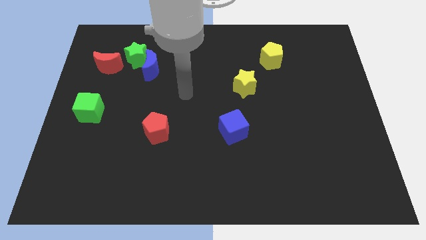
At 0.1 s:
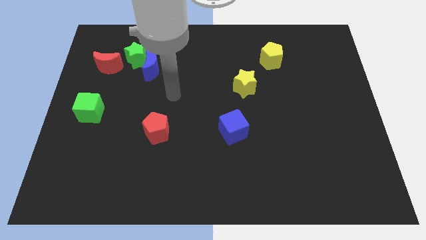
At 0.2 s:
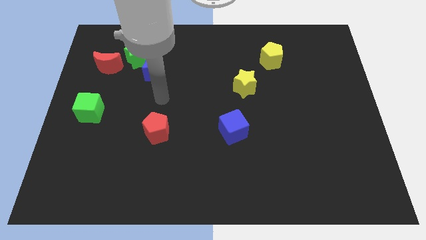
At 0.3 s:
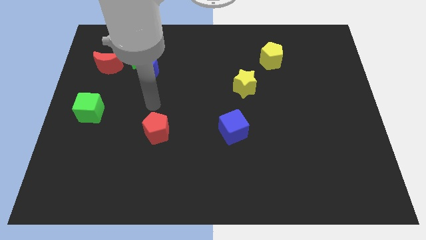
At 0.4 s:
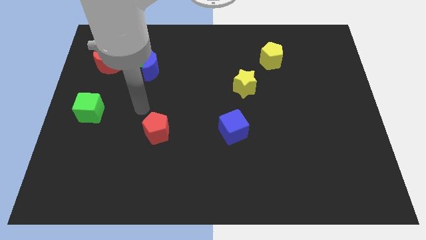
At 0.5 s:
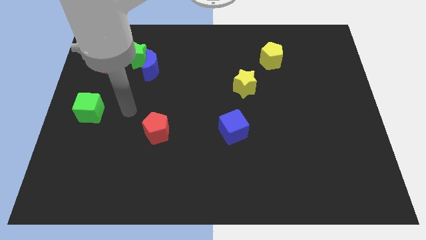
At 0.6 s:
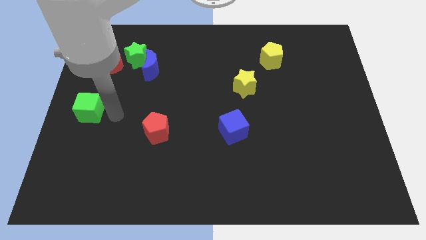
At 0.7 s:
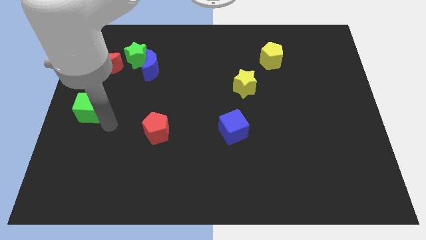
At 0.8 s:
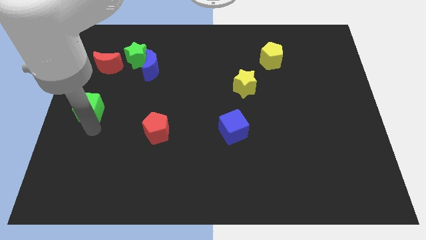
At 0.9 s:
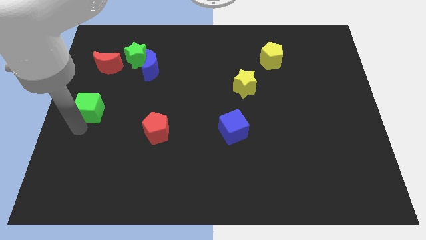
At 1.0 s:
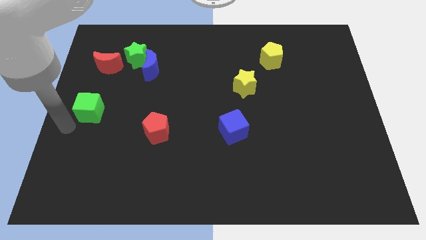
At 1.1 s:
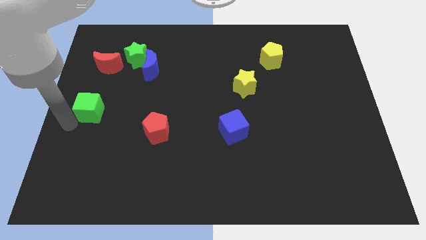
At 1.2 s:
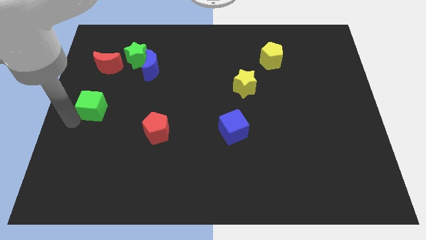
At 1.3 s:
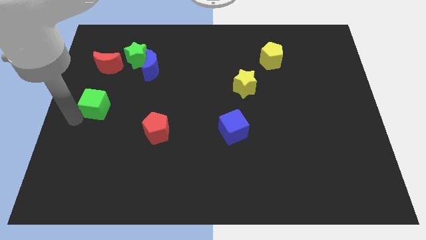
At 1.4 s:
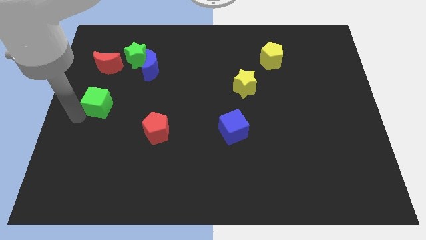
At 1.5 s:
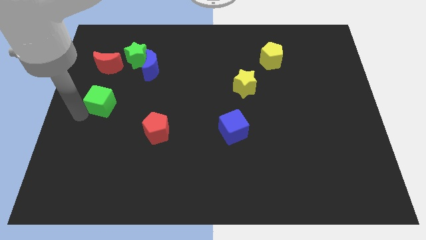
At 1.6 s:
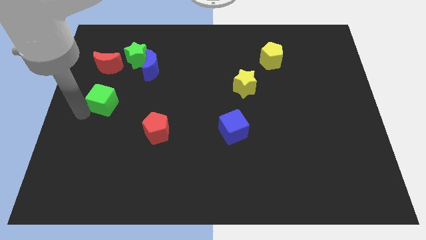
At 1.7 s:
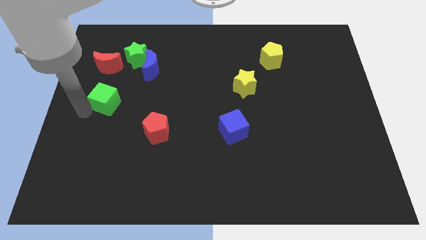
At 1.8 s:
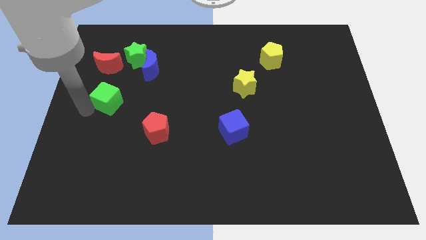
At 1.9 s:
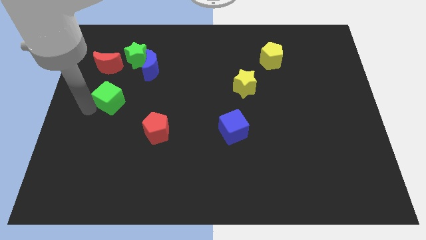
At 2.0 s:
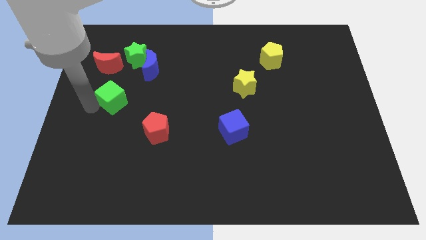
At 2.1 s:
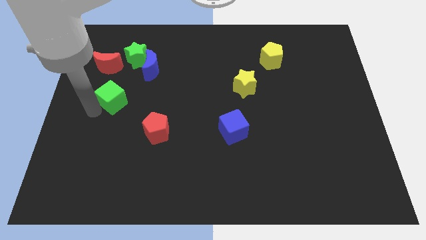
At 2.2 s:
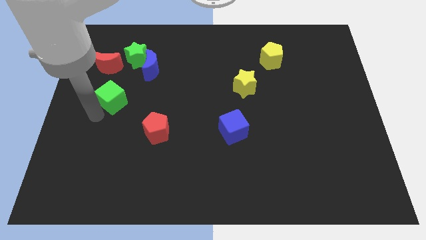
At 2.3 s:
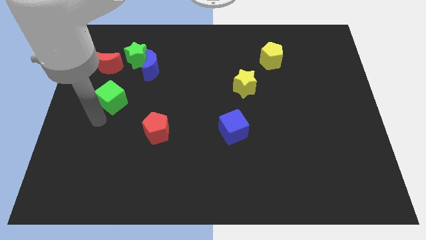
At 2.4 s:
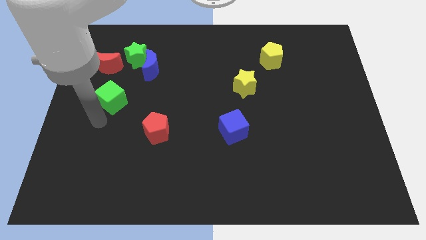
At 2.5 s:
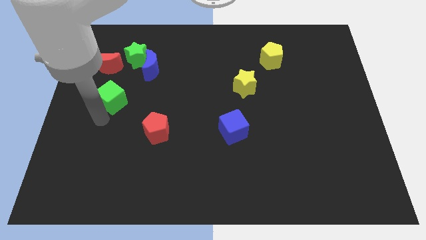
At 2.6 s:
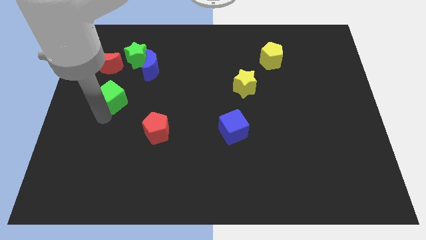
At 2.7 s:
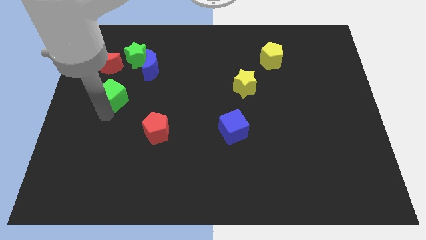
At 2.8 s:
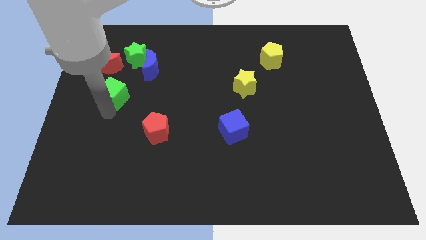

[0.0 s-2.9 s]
move the green cube to the bottom right side of the red moon

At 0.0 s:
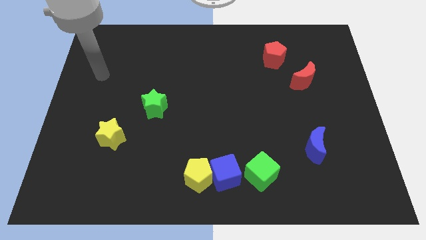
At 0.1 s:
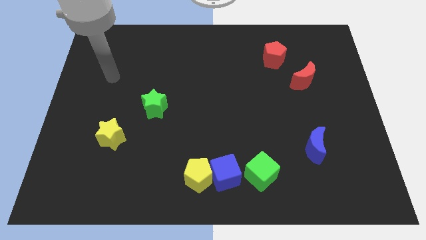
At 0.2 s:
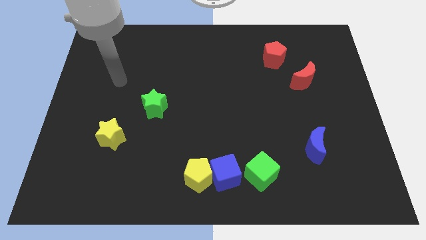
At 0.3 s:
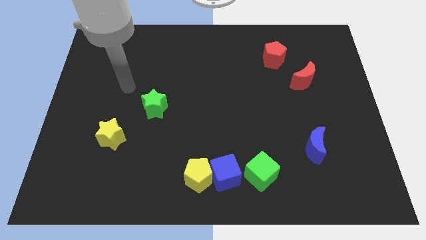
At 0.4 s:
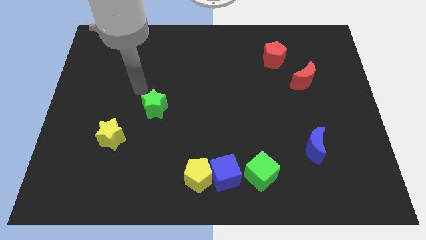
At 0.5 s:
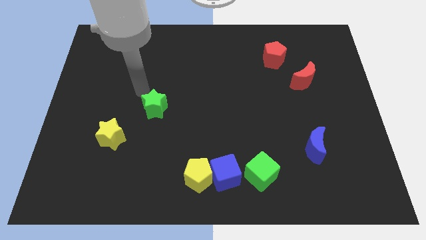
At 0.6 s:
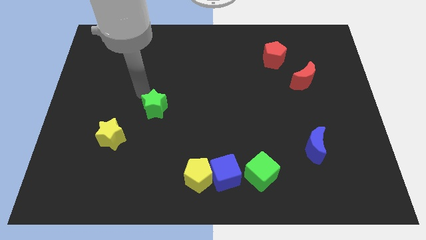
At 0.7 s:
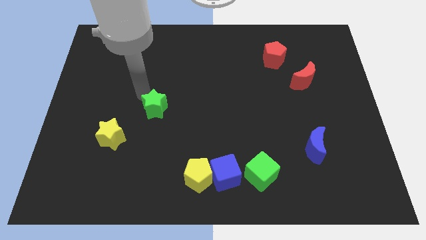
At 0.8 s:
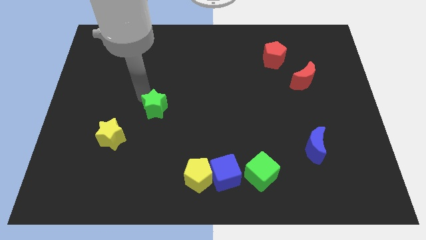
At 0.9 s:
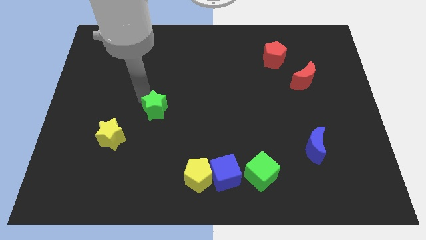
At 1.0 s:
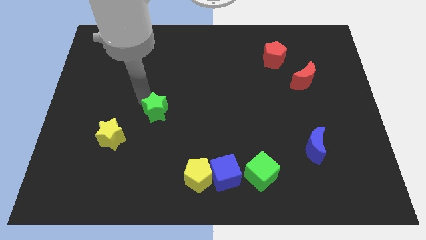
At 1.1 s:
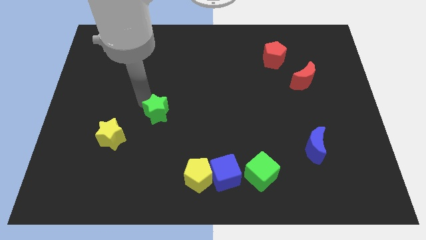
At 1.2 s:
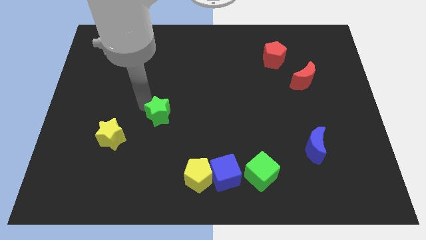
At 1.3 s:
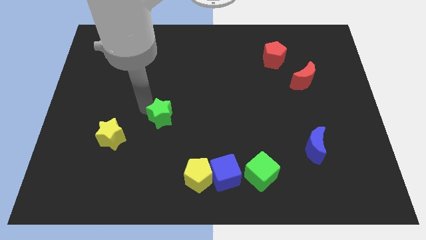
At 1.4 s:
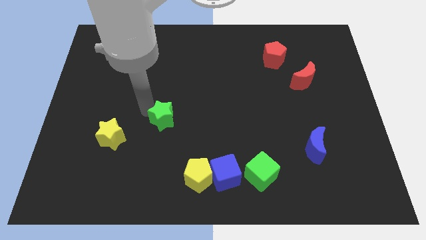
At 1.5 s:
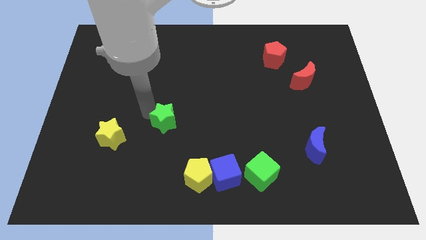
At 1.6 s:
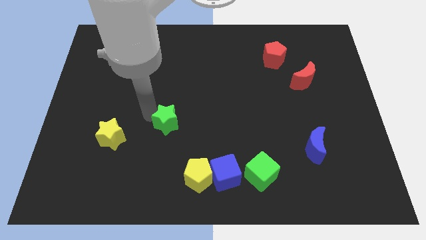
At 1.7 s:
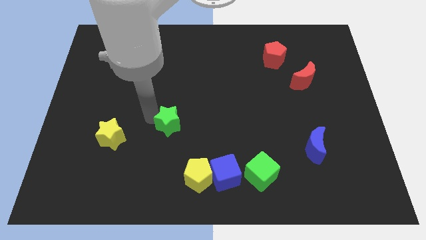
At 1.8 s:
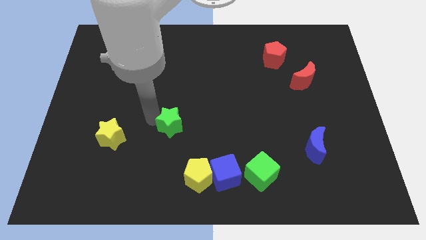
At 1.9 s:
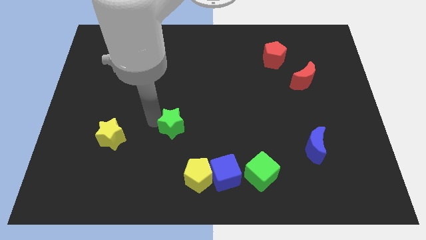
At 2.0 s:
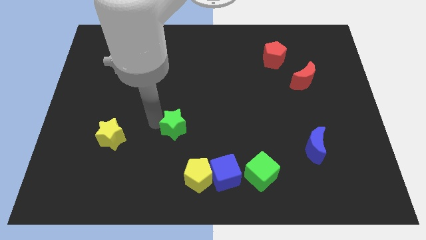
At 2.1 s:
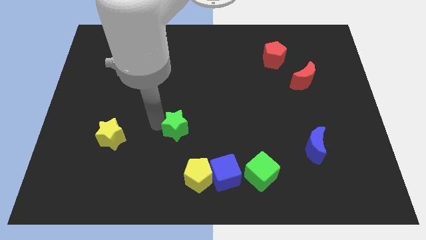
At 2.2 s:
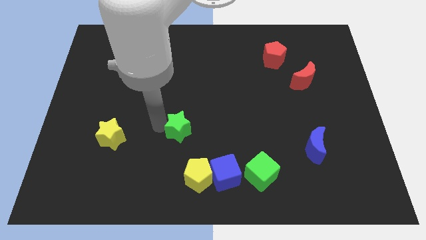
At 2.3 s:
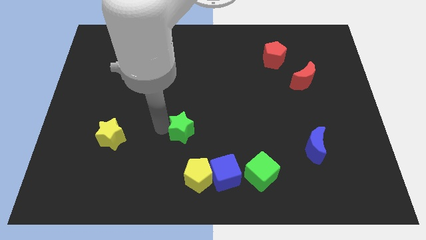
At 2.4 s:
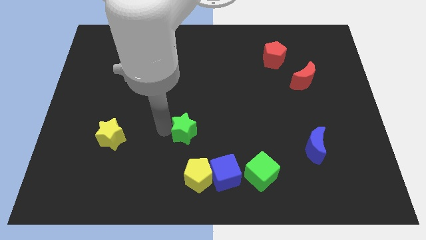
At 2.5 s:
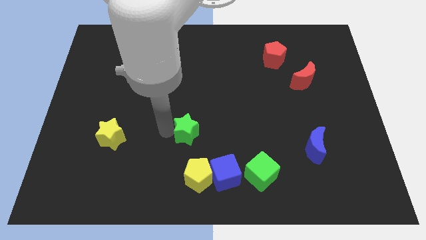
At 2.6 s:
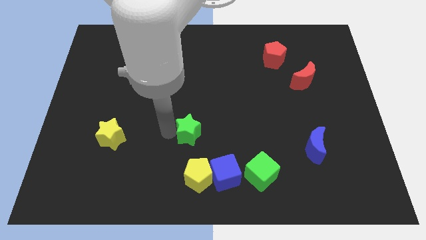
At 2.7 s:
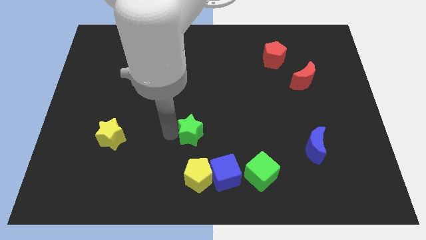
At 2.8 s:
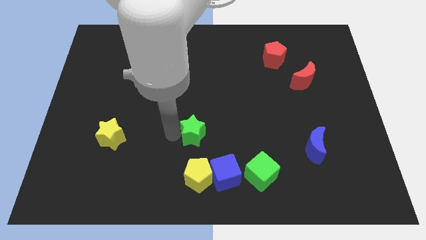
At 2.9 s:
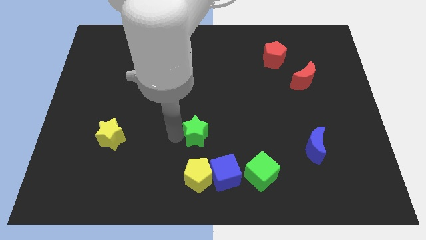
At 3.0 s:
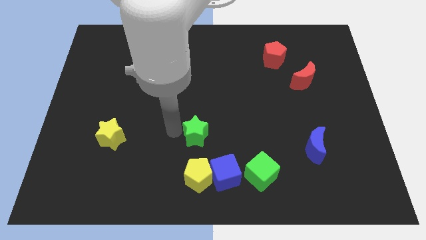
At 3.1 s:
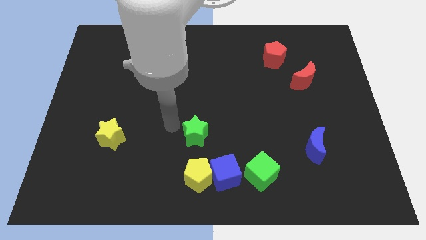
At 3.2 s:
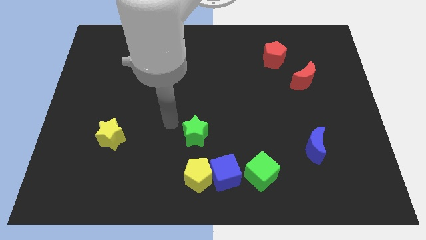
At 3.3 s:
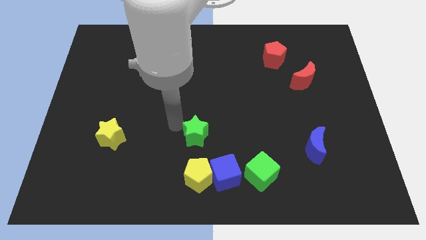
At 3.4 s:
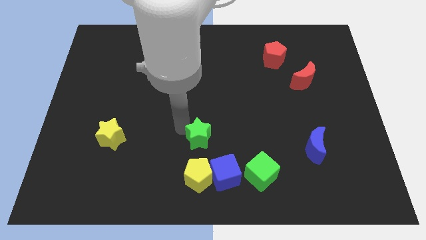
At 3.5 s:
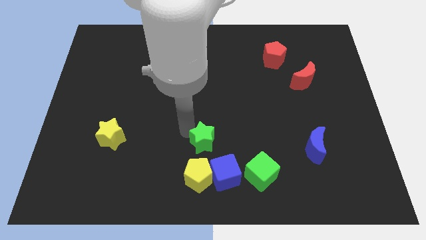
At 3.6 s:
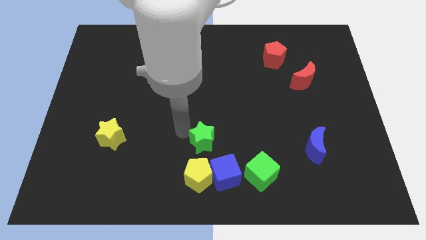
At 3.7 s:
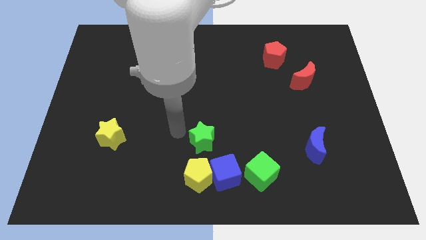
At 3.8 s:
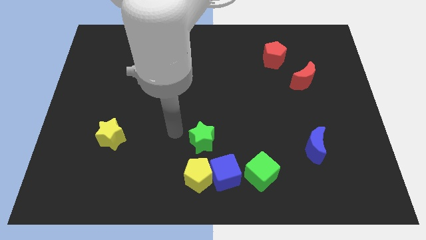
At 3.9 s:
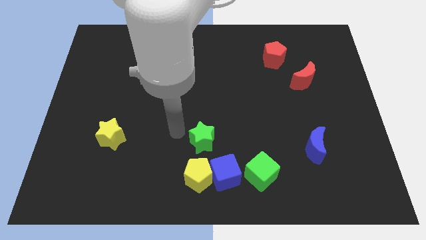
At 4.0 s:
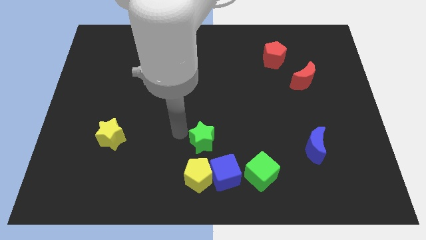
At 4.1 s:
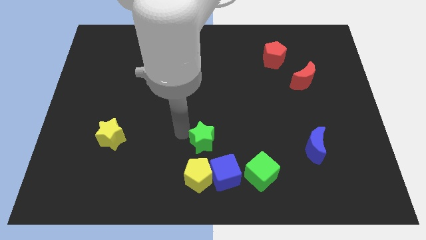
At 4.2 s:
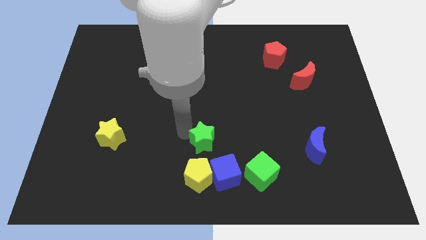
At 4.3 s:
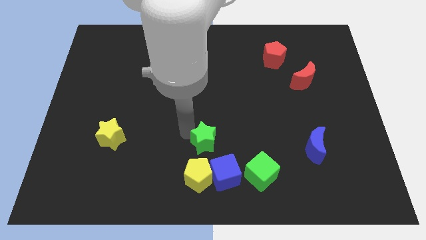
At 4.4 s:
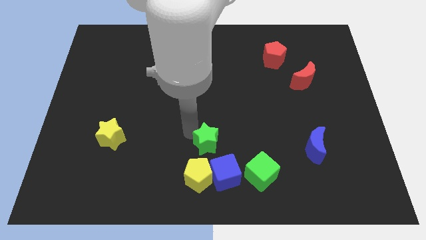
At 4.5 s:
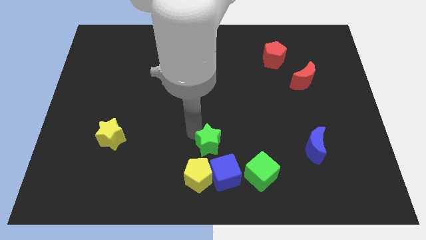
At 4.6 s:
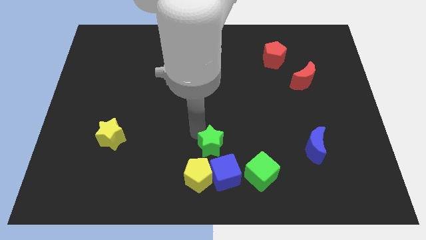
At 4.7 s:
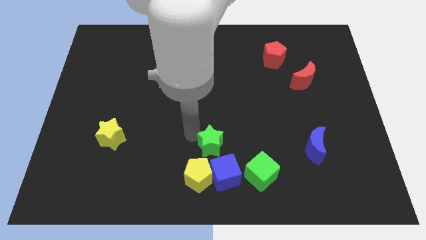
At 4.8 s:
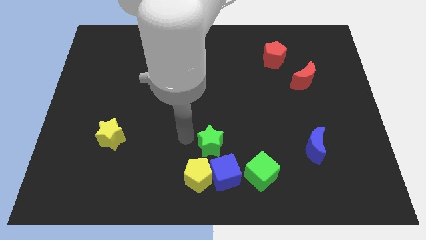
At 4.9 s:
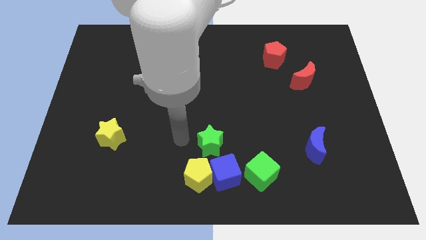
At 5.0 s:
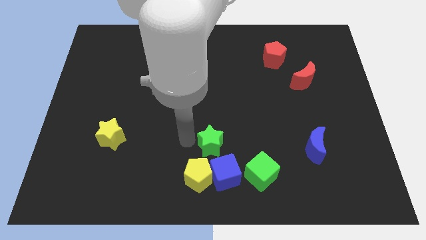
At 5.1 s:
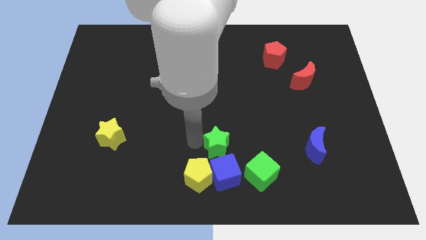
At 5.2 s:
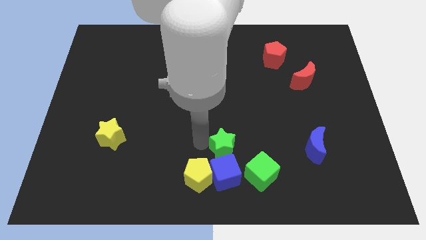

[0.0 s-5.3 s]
put the green star to the top right of the blue cube
